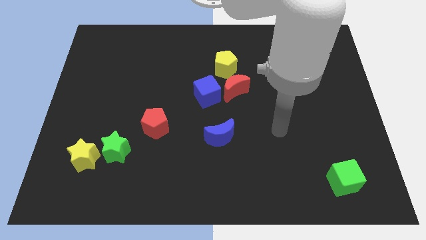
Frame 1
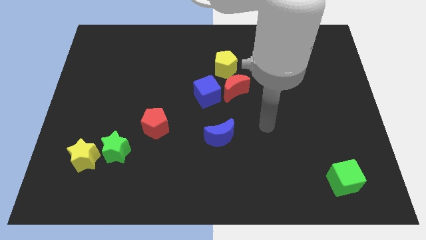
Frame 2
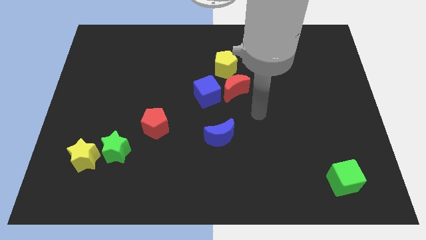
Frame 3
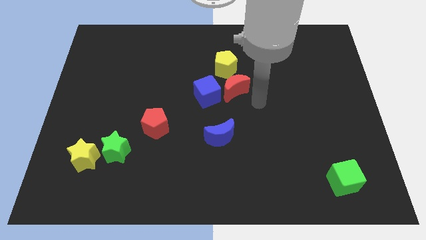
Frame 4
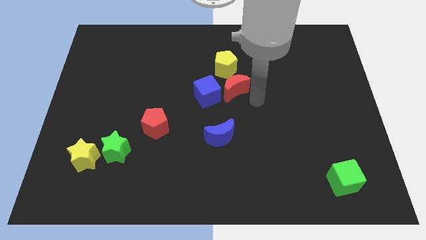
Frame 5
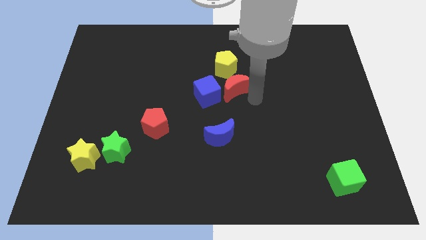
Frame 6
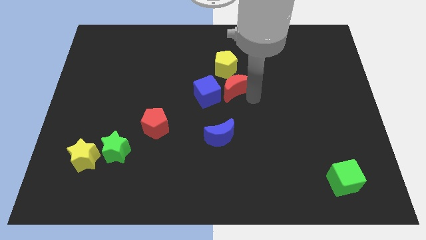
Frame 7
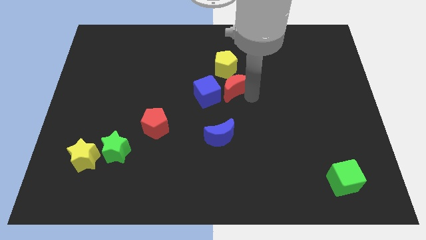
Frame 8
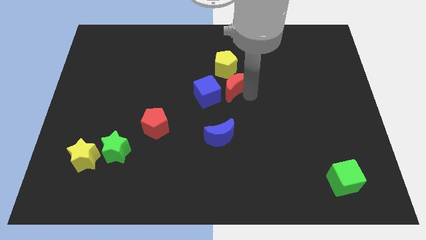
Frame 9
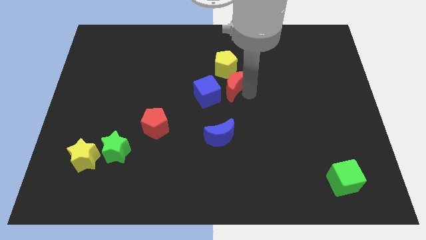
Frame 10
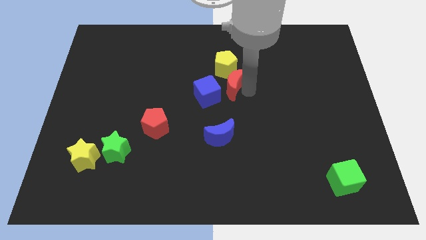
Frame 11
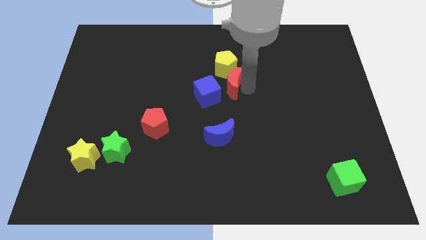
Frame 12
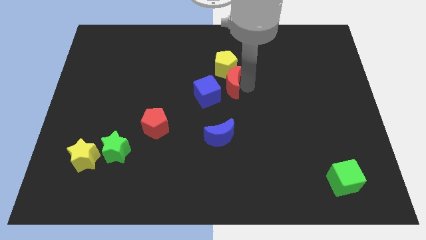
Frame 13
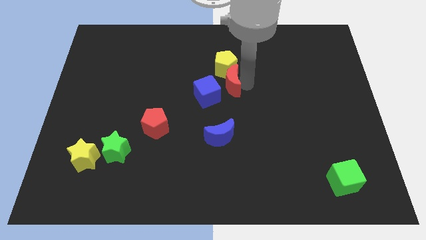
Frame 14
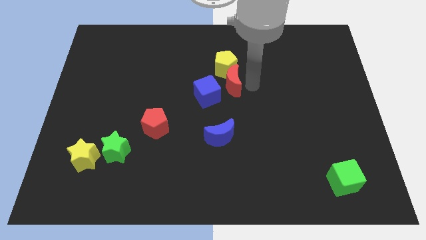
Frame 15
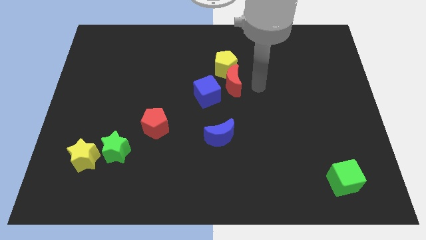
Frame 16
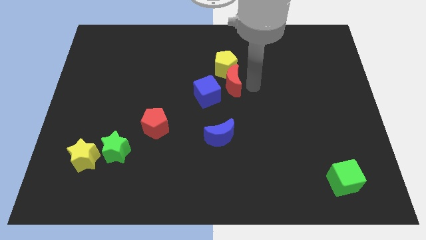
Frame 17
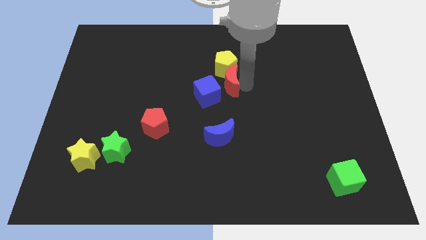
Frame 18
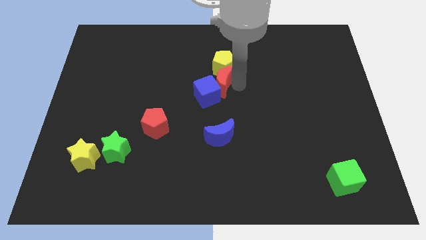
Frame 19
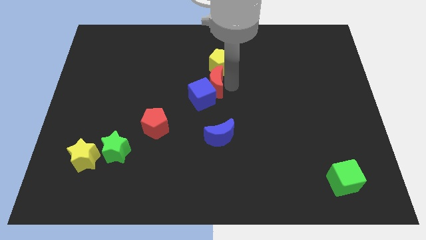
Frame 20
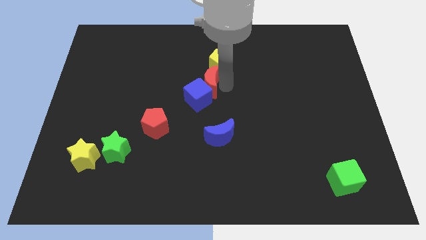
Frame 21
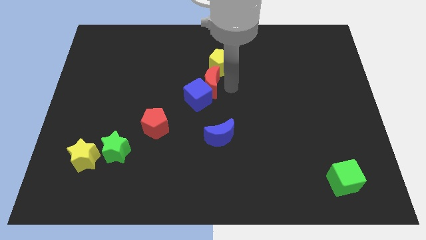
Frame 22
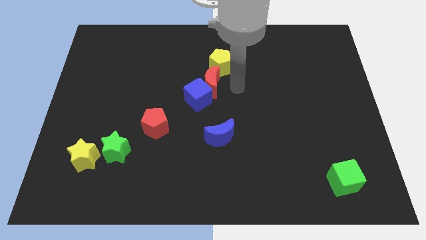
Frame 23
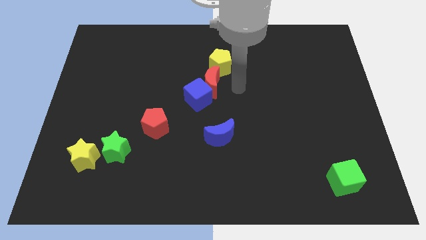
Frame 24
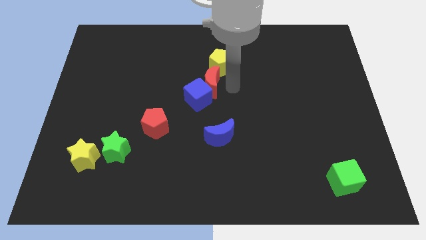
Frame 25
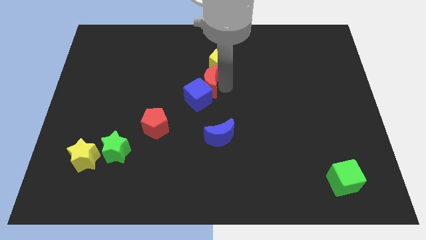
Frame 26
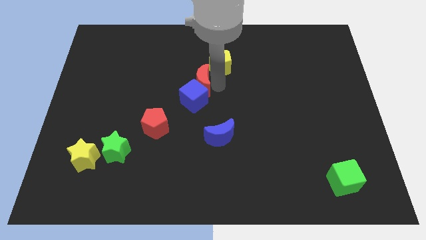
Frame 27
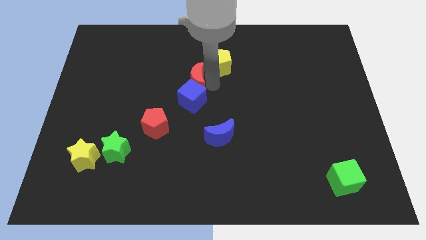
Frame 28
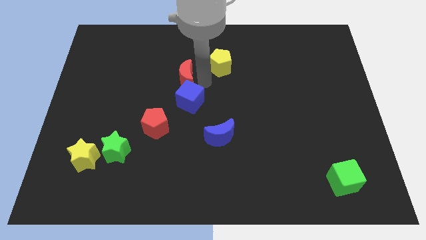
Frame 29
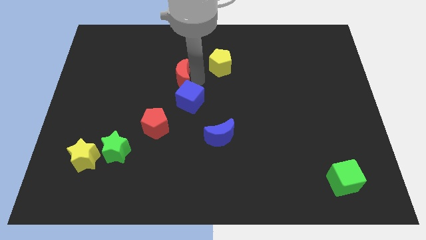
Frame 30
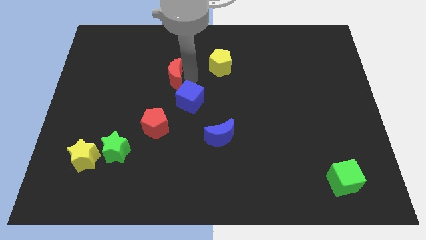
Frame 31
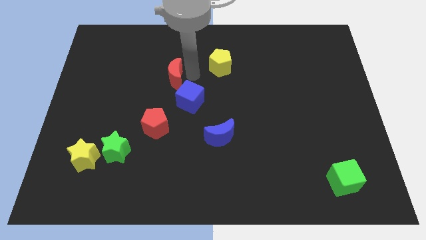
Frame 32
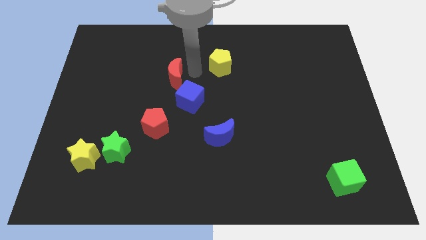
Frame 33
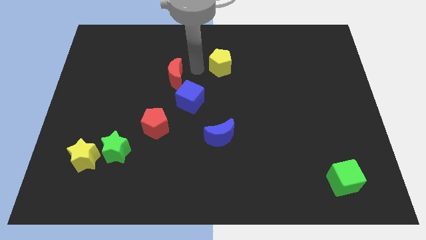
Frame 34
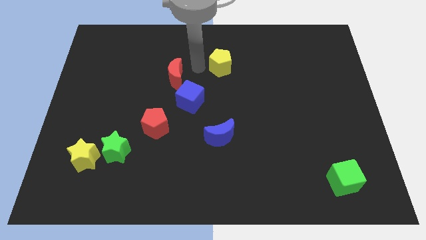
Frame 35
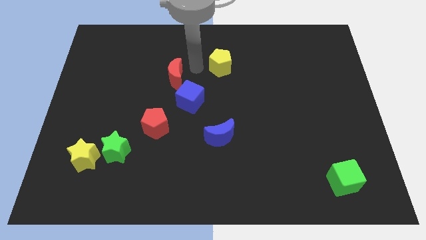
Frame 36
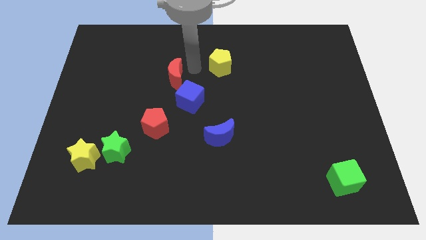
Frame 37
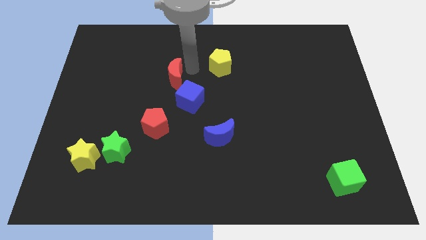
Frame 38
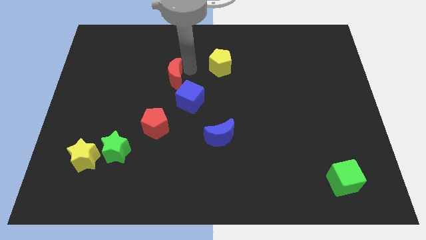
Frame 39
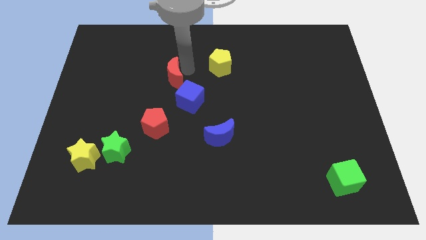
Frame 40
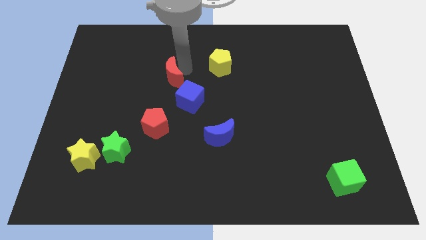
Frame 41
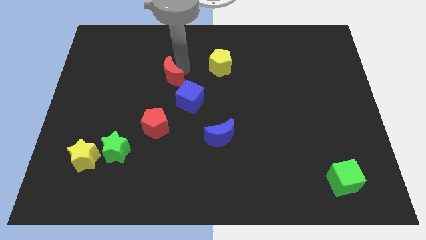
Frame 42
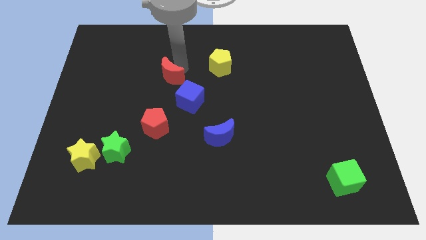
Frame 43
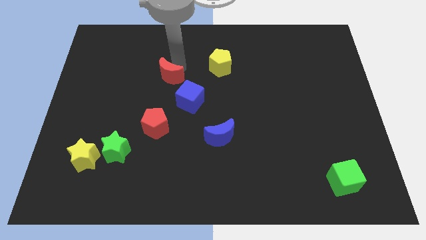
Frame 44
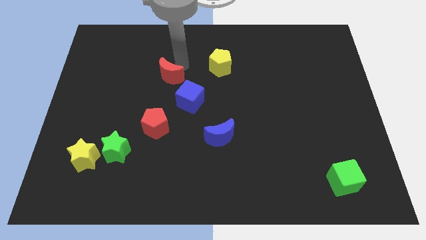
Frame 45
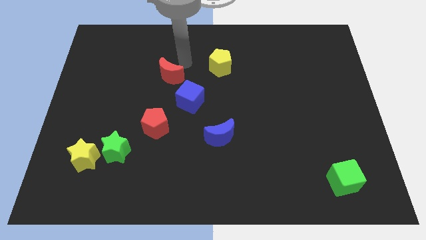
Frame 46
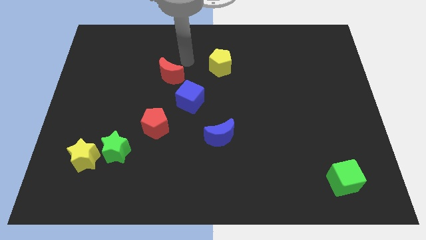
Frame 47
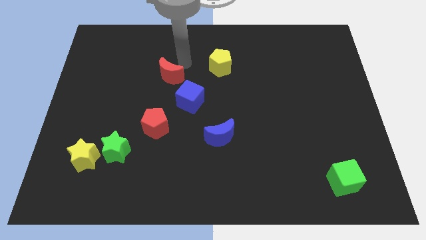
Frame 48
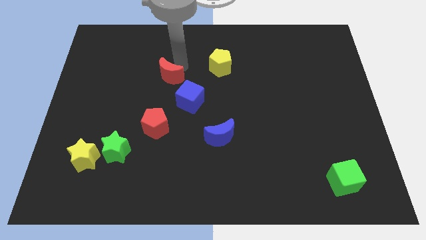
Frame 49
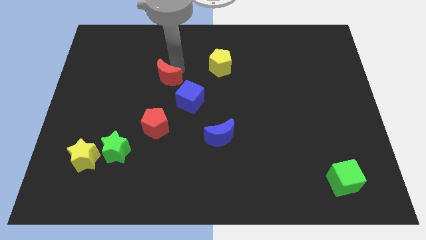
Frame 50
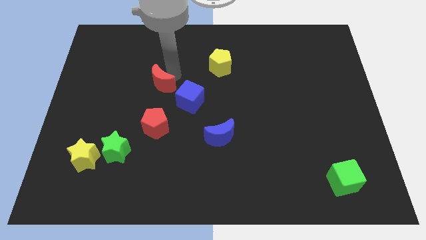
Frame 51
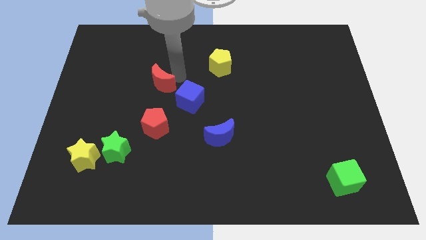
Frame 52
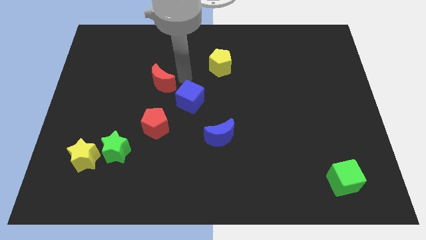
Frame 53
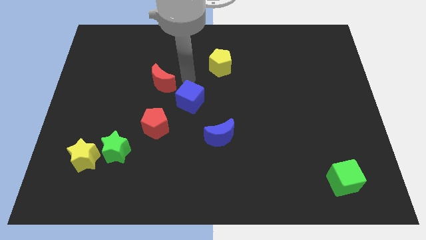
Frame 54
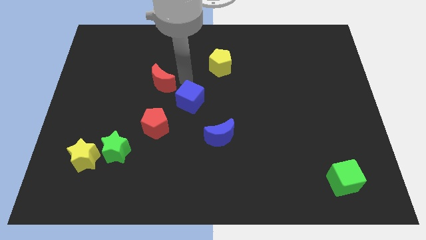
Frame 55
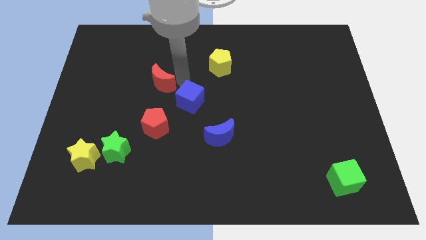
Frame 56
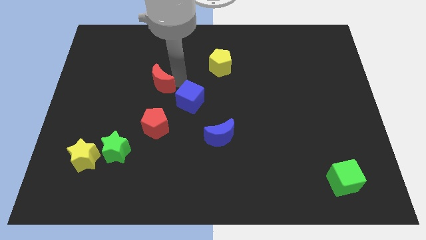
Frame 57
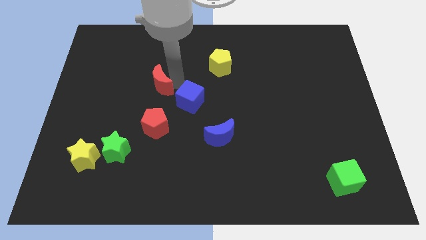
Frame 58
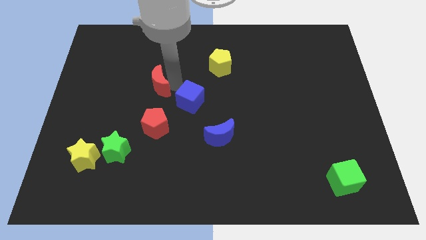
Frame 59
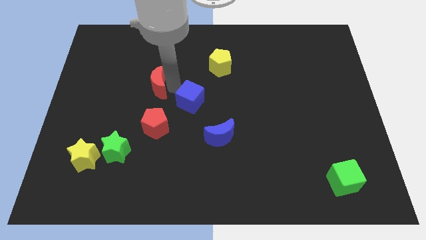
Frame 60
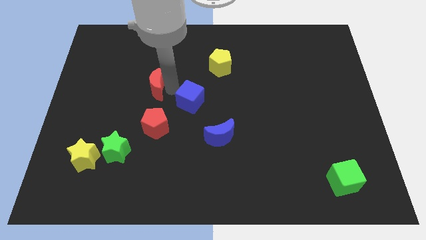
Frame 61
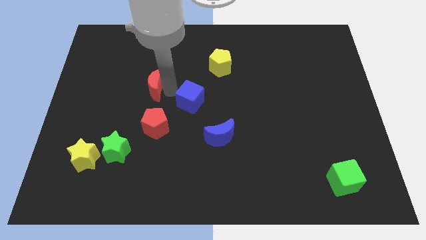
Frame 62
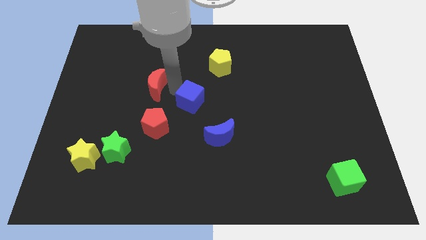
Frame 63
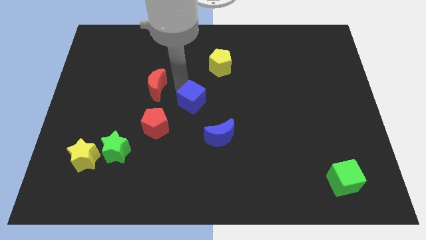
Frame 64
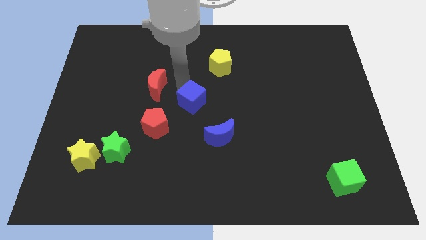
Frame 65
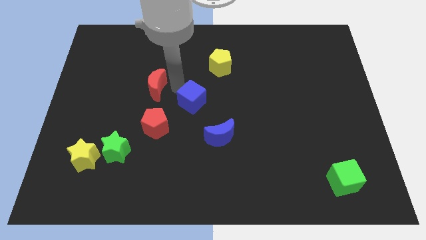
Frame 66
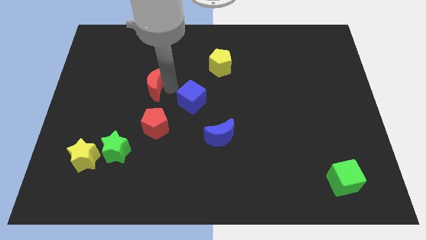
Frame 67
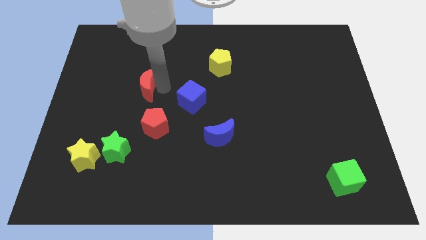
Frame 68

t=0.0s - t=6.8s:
slide the red moon to the left

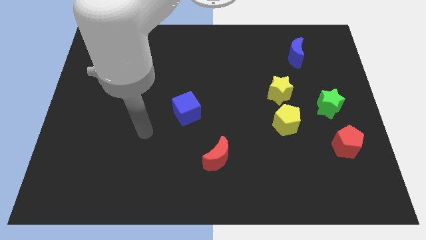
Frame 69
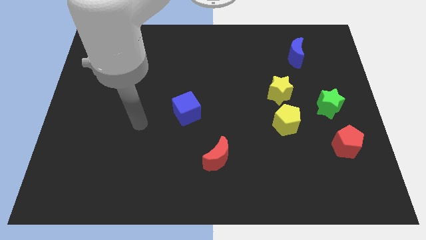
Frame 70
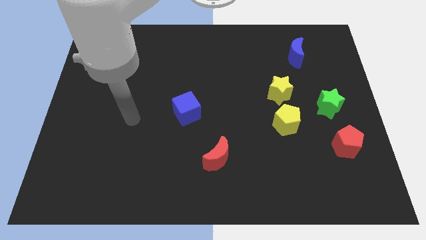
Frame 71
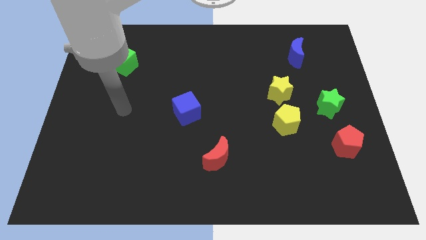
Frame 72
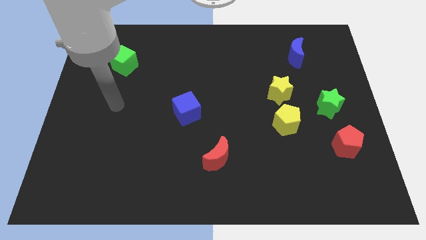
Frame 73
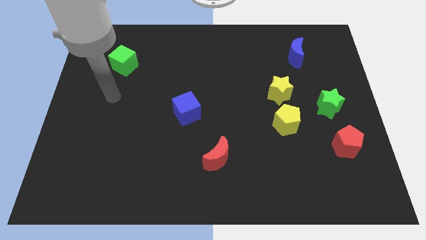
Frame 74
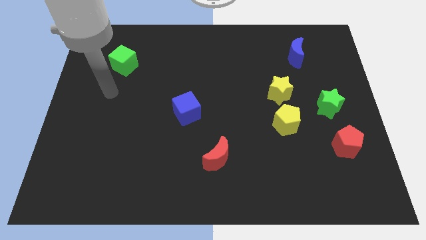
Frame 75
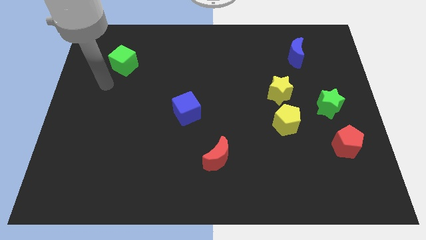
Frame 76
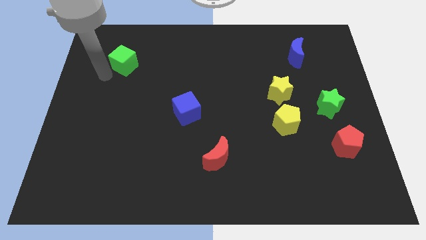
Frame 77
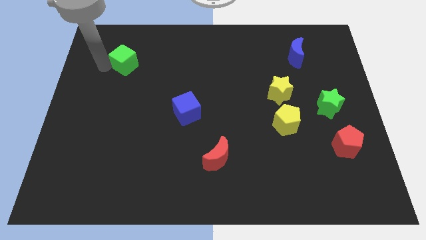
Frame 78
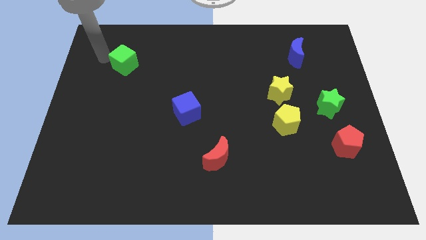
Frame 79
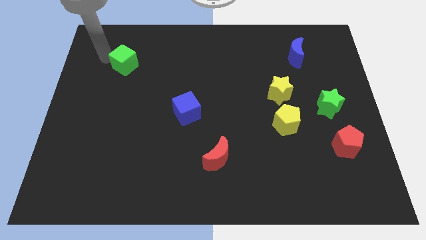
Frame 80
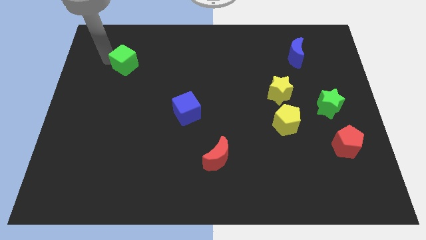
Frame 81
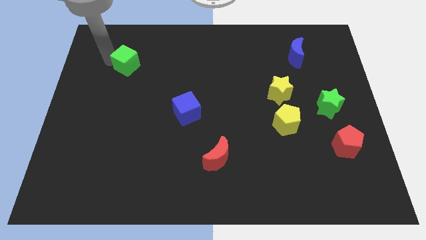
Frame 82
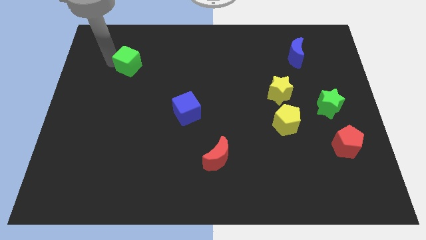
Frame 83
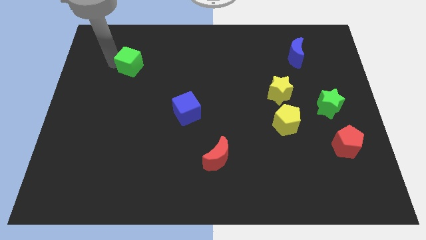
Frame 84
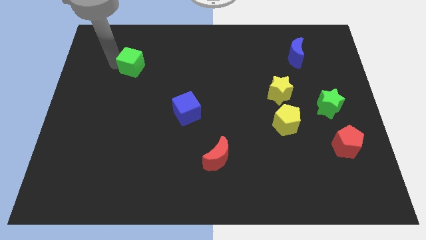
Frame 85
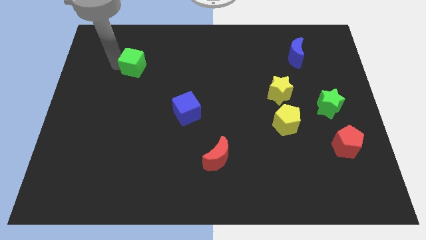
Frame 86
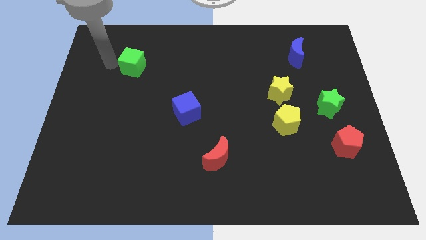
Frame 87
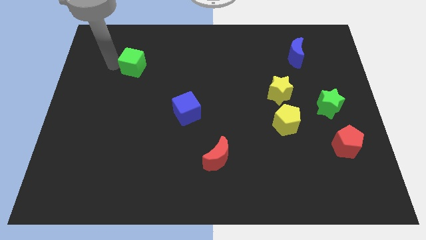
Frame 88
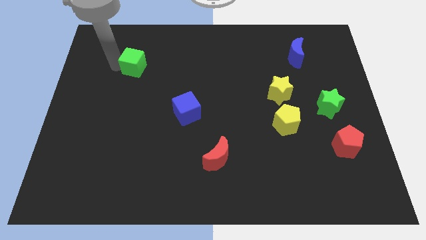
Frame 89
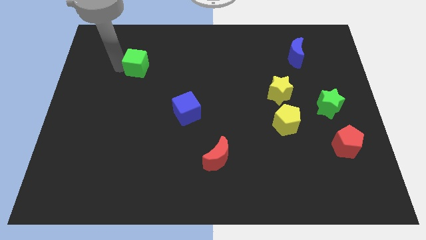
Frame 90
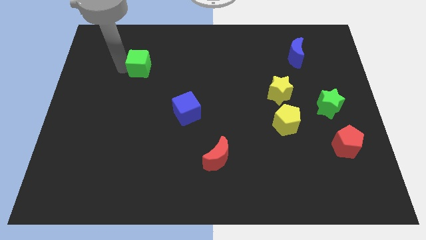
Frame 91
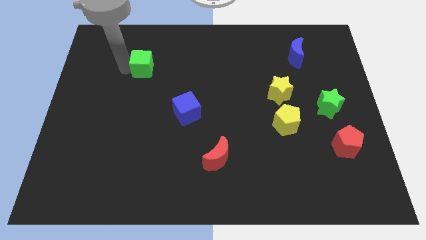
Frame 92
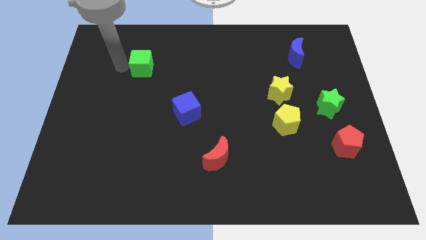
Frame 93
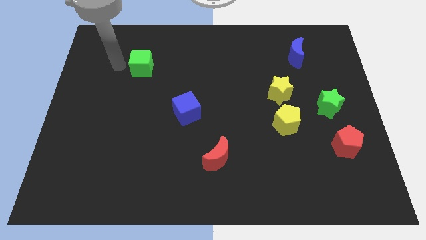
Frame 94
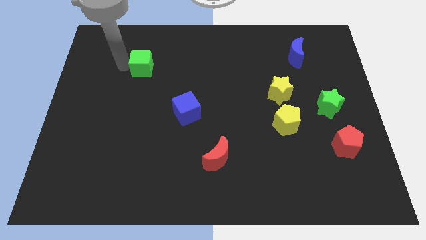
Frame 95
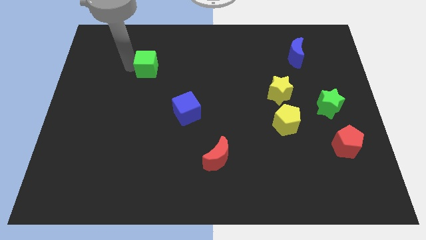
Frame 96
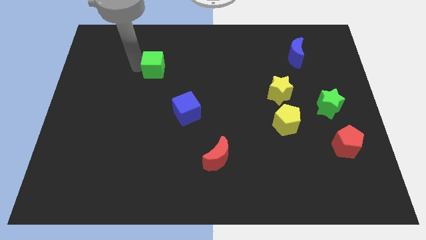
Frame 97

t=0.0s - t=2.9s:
slightly slide the green cube right
